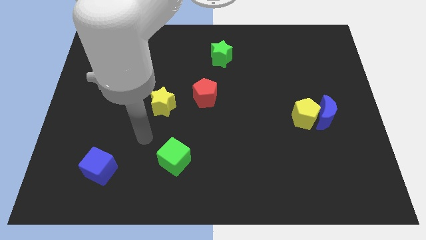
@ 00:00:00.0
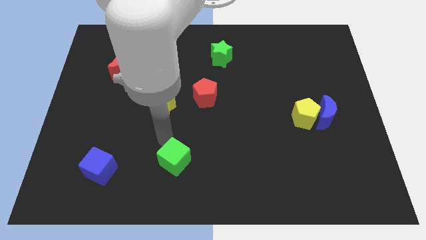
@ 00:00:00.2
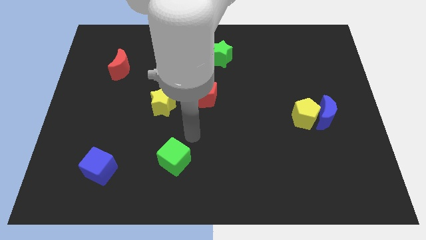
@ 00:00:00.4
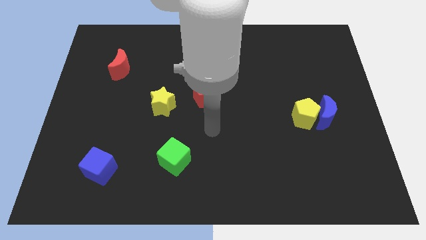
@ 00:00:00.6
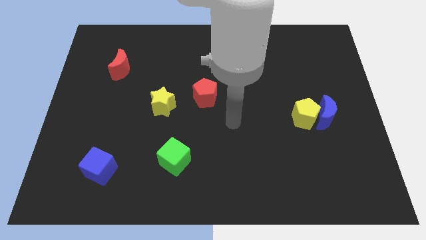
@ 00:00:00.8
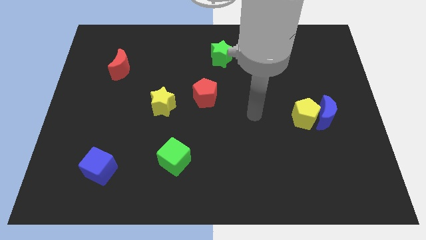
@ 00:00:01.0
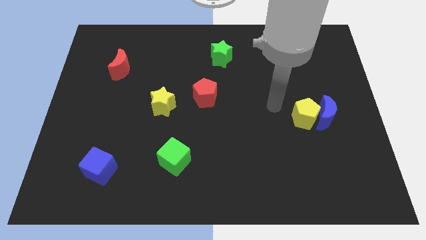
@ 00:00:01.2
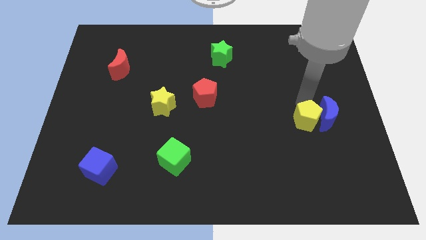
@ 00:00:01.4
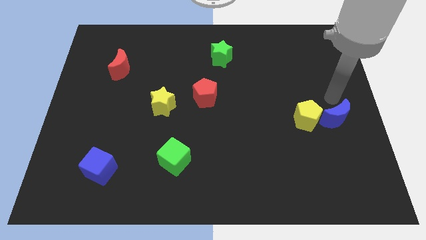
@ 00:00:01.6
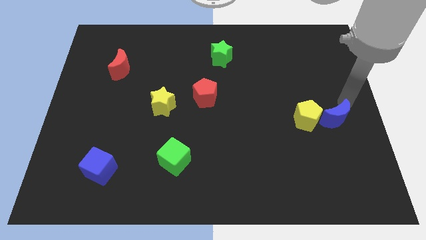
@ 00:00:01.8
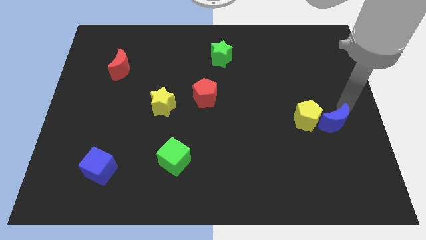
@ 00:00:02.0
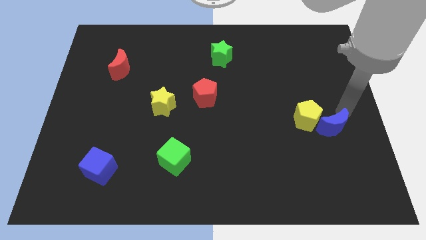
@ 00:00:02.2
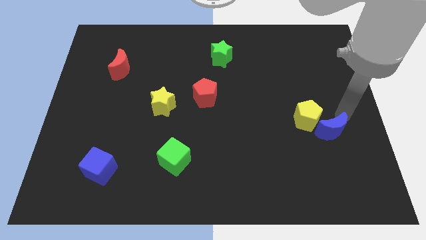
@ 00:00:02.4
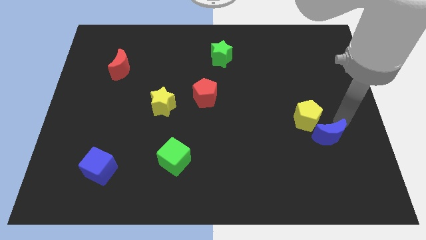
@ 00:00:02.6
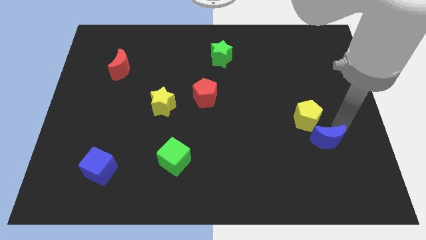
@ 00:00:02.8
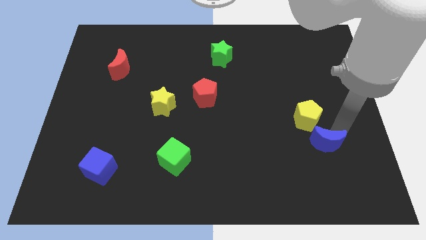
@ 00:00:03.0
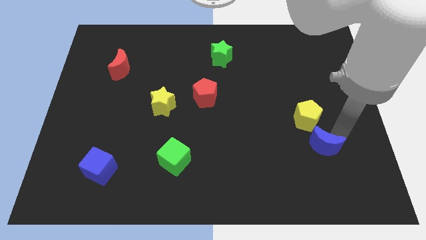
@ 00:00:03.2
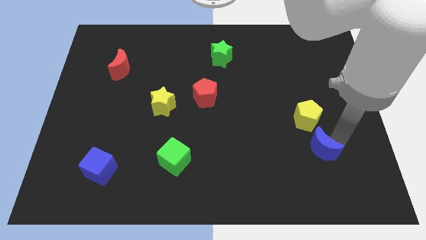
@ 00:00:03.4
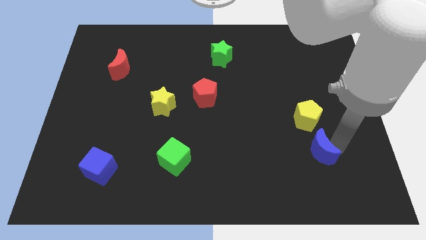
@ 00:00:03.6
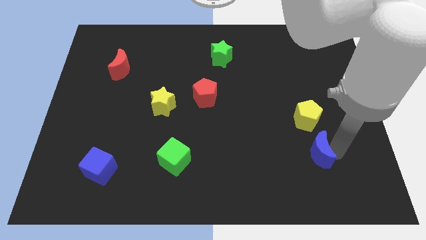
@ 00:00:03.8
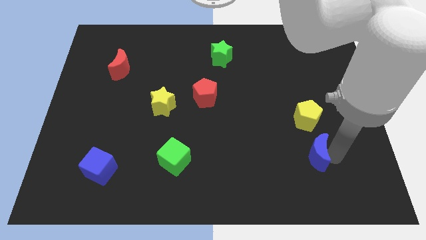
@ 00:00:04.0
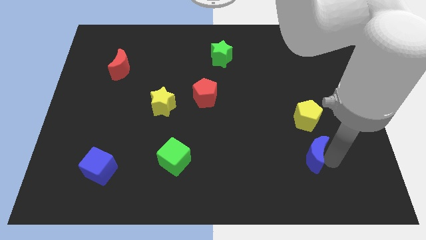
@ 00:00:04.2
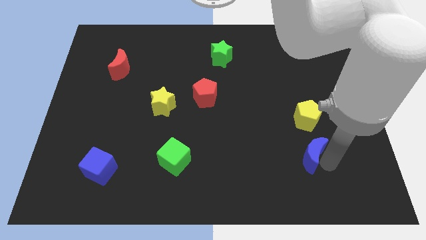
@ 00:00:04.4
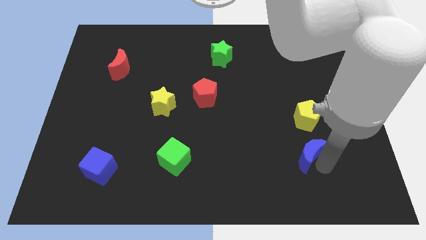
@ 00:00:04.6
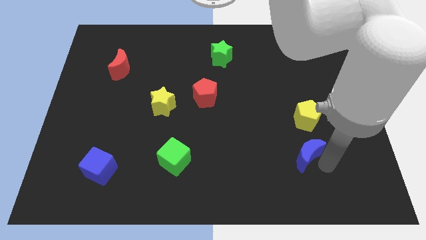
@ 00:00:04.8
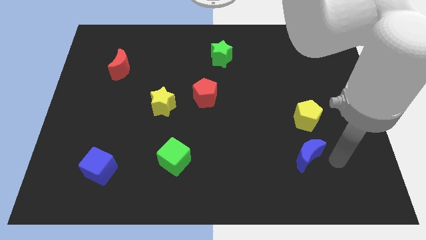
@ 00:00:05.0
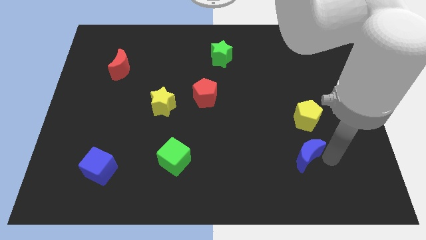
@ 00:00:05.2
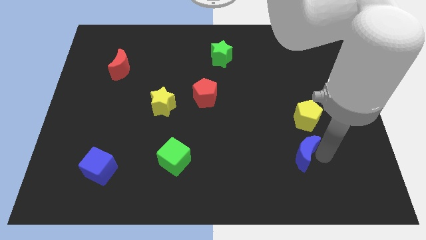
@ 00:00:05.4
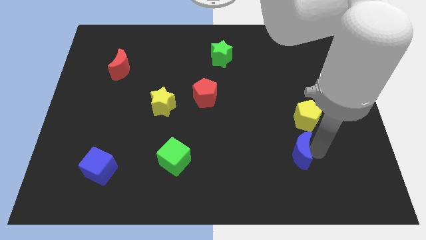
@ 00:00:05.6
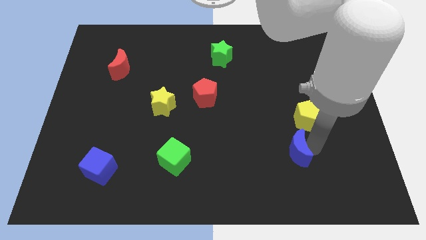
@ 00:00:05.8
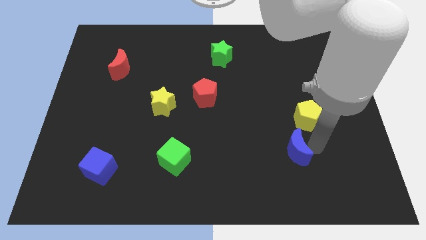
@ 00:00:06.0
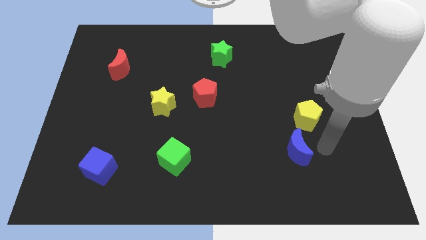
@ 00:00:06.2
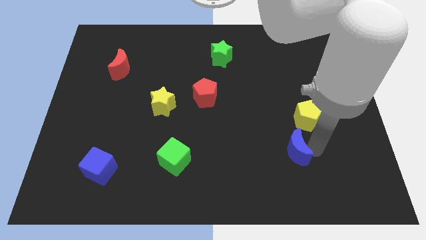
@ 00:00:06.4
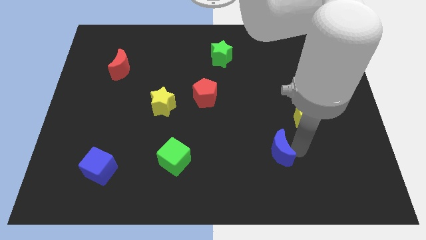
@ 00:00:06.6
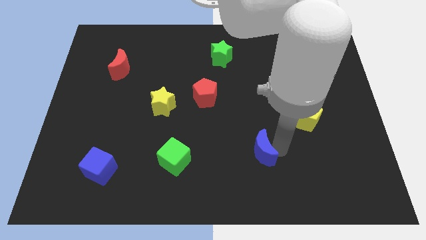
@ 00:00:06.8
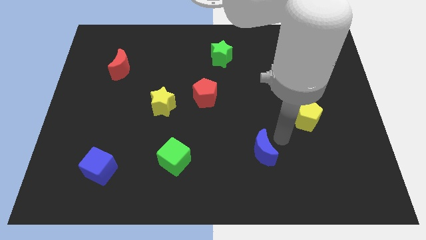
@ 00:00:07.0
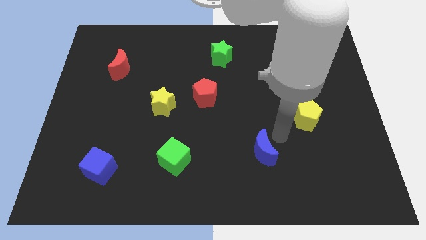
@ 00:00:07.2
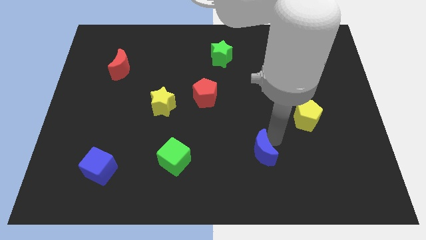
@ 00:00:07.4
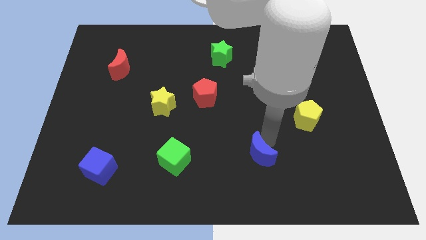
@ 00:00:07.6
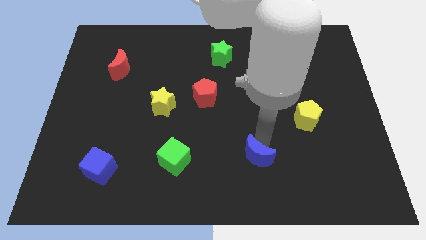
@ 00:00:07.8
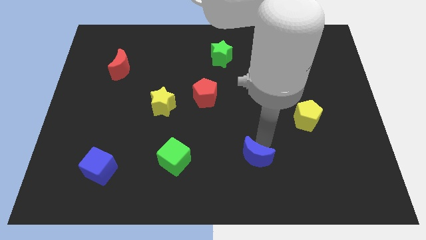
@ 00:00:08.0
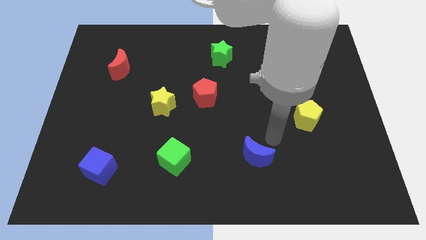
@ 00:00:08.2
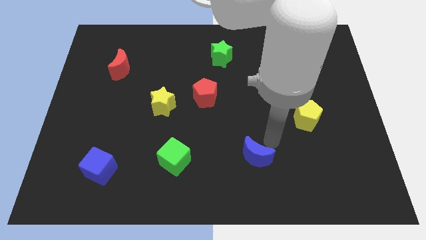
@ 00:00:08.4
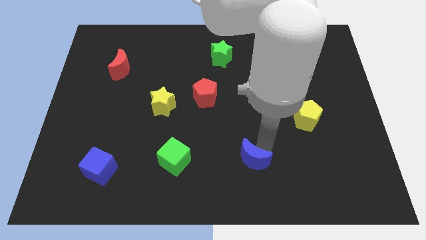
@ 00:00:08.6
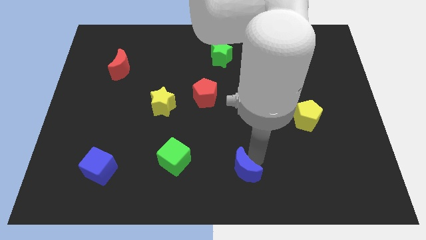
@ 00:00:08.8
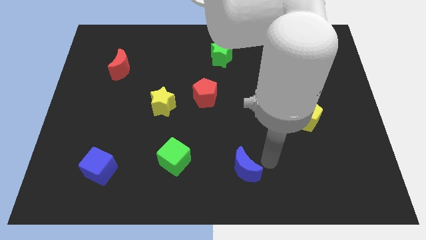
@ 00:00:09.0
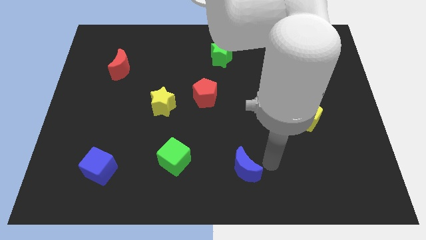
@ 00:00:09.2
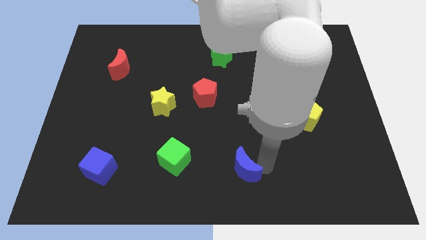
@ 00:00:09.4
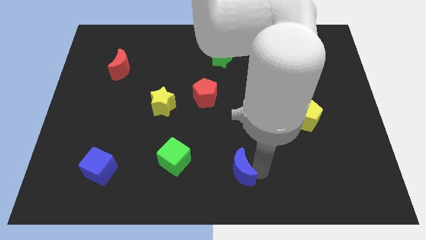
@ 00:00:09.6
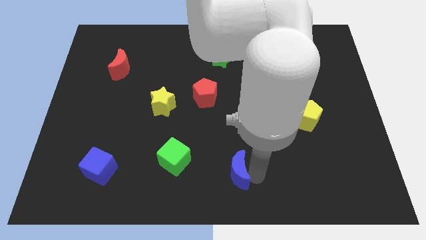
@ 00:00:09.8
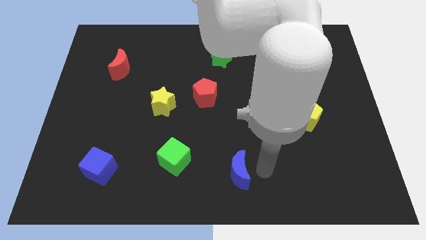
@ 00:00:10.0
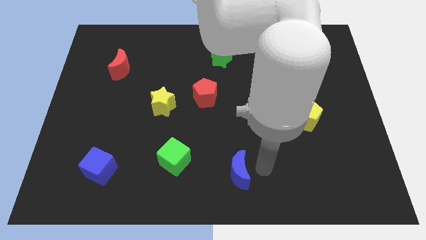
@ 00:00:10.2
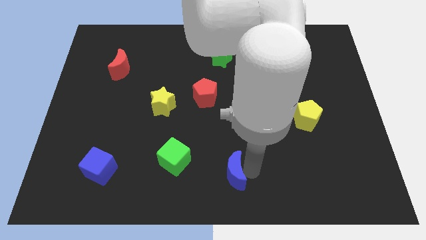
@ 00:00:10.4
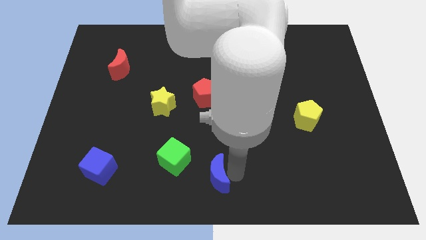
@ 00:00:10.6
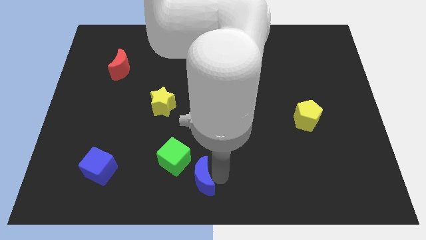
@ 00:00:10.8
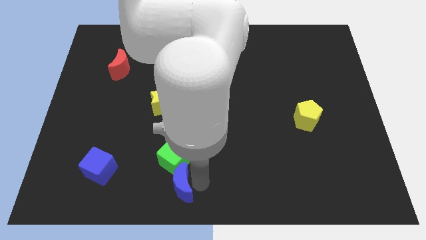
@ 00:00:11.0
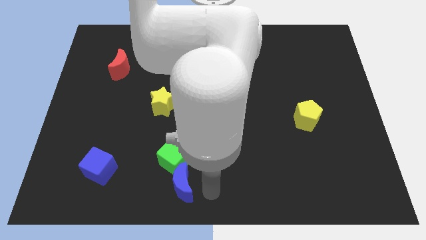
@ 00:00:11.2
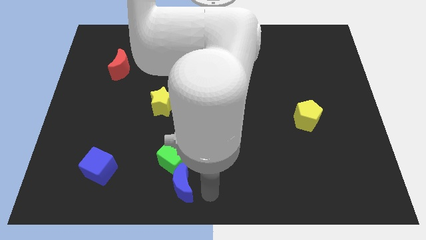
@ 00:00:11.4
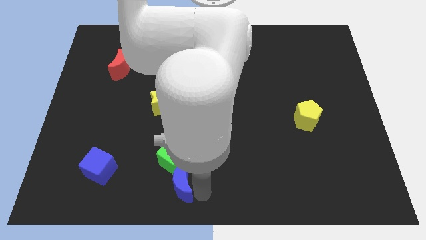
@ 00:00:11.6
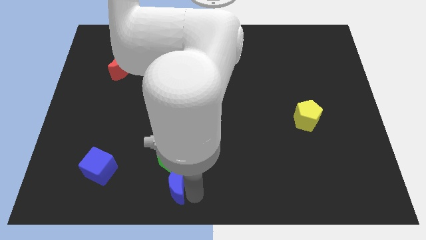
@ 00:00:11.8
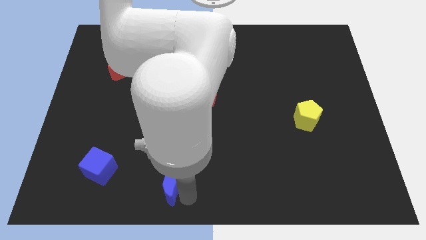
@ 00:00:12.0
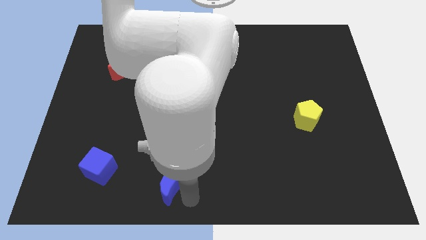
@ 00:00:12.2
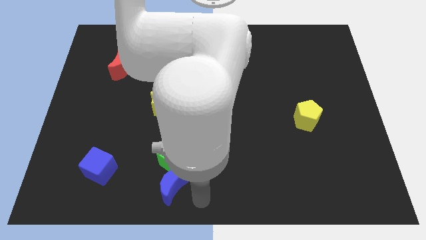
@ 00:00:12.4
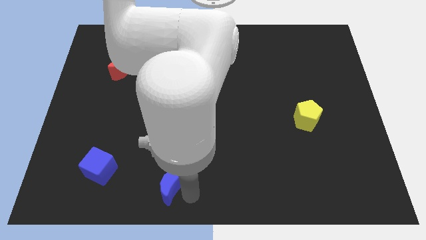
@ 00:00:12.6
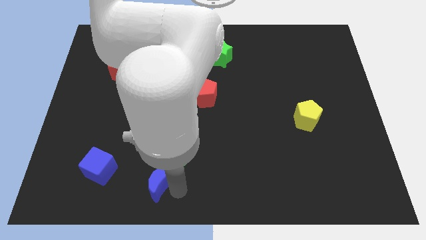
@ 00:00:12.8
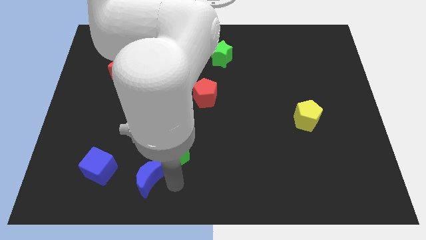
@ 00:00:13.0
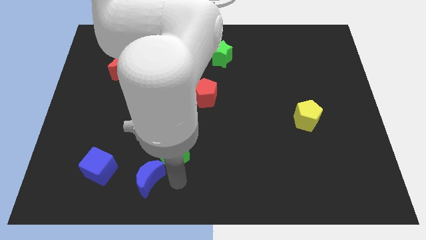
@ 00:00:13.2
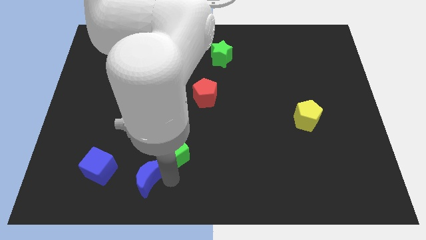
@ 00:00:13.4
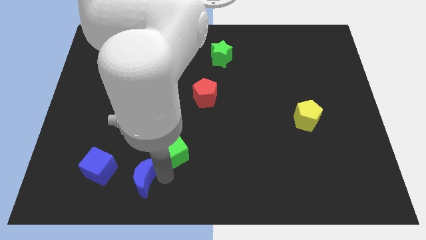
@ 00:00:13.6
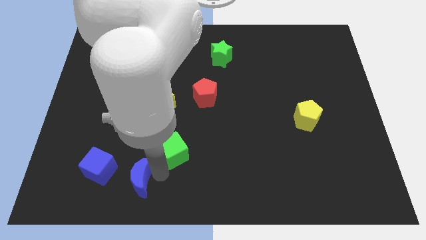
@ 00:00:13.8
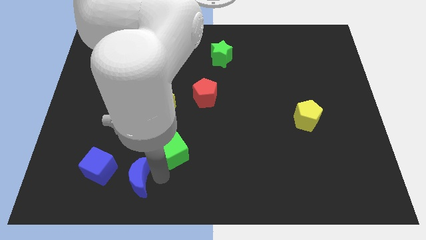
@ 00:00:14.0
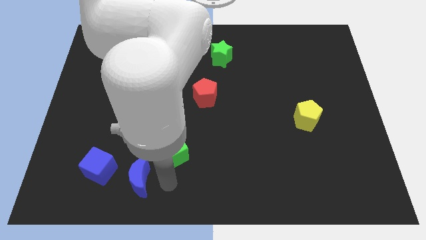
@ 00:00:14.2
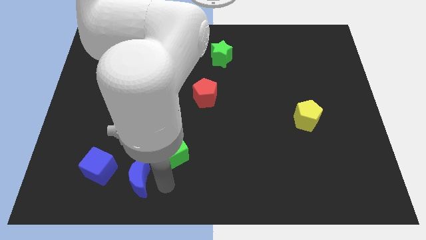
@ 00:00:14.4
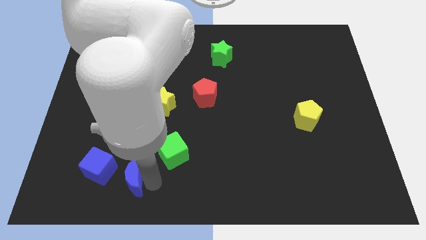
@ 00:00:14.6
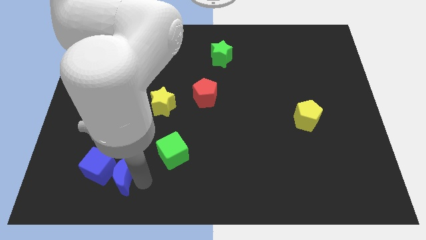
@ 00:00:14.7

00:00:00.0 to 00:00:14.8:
move the blue moon to the blue cube

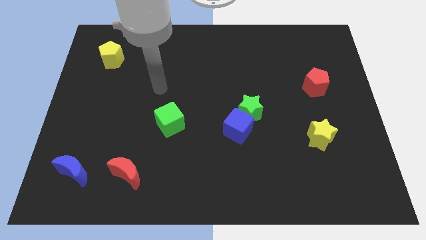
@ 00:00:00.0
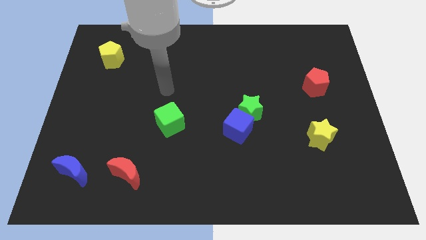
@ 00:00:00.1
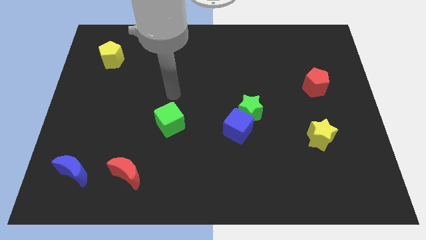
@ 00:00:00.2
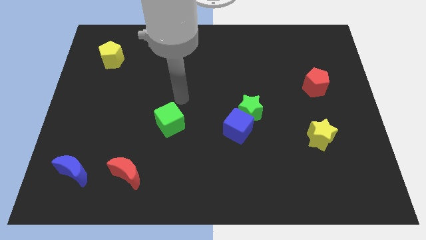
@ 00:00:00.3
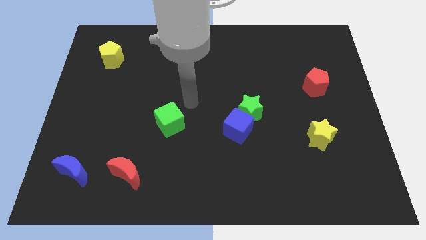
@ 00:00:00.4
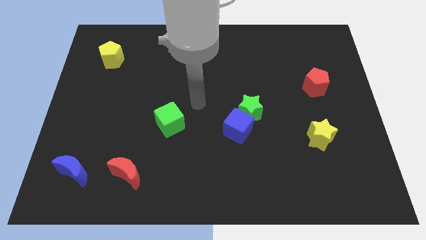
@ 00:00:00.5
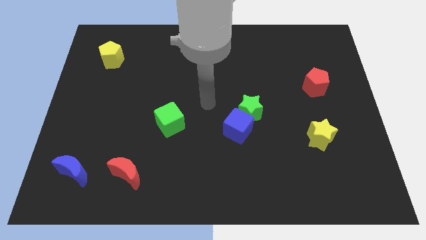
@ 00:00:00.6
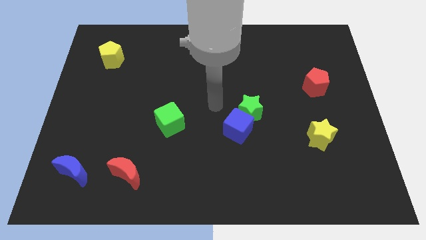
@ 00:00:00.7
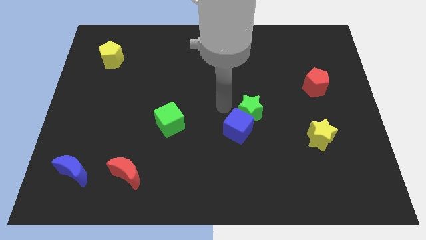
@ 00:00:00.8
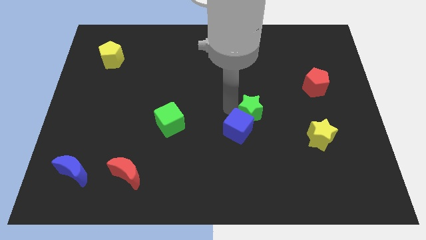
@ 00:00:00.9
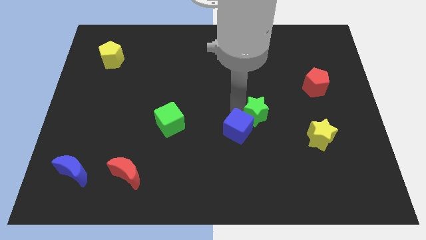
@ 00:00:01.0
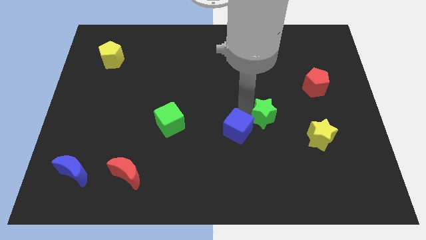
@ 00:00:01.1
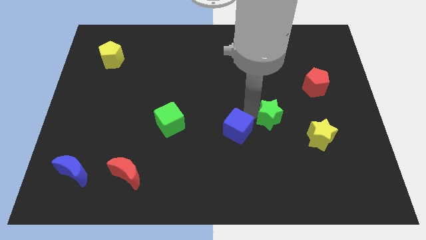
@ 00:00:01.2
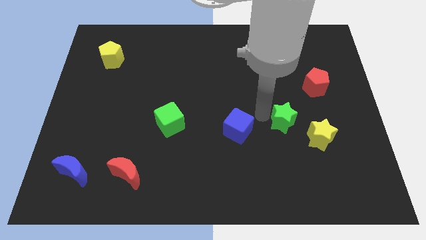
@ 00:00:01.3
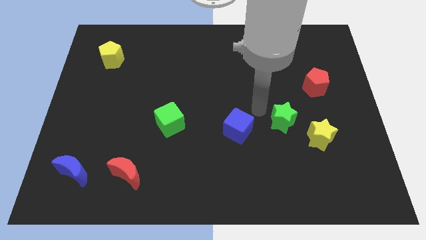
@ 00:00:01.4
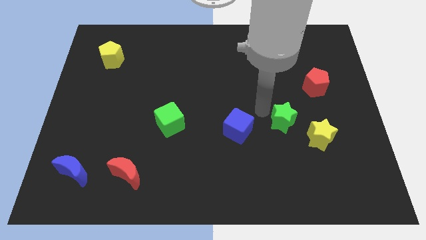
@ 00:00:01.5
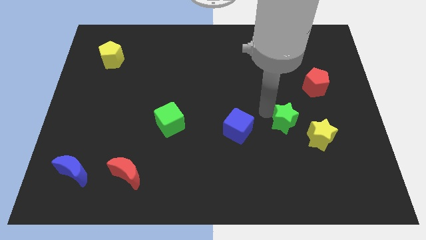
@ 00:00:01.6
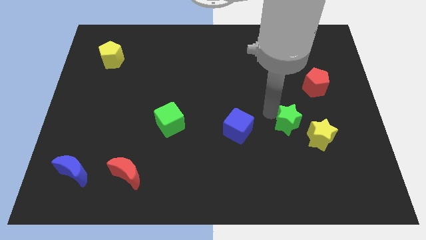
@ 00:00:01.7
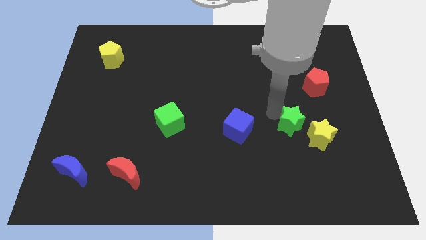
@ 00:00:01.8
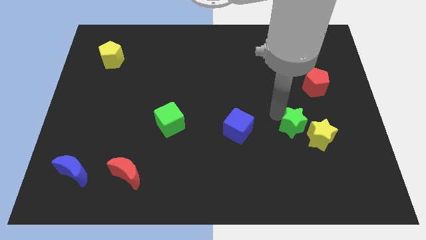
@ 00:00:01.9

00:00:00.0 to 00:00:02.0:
move the green star close to the yellow star
